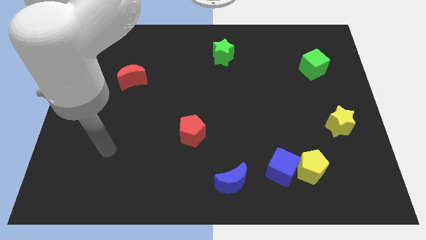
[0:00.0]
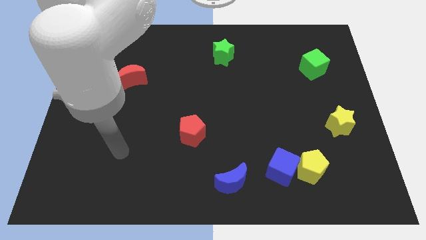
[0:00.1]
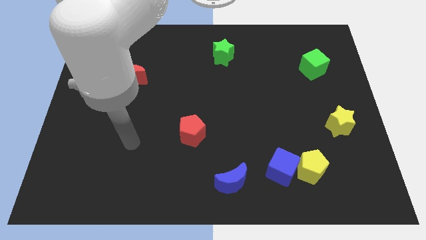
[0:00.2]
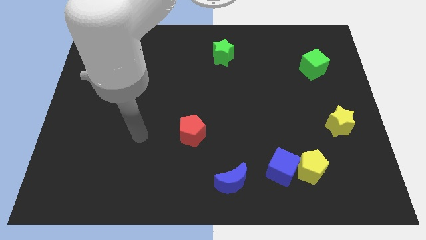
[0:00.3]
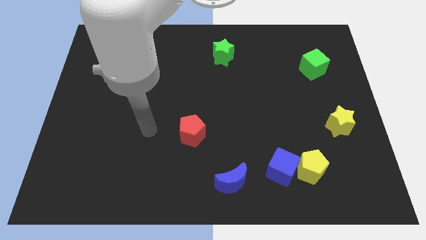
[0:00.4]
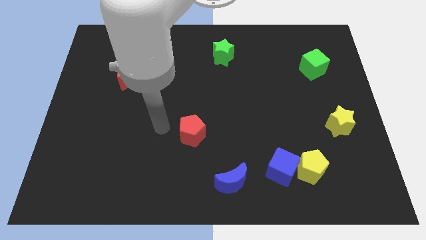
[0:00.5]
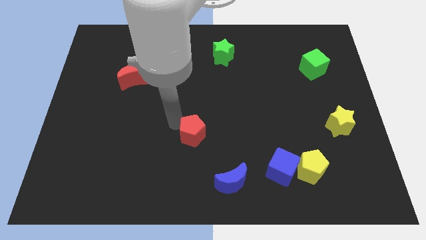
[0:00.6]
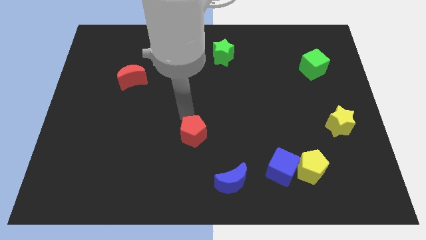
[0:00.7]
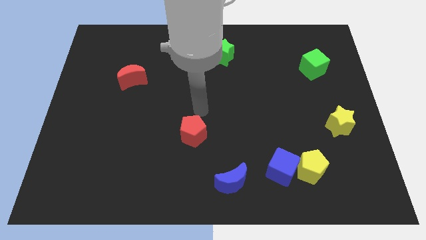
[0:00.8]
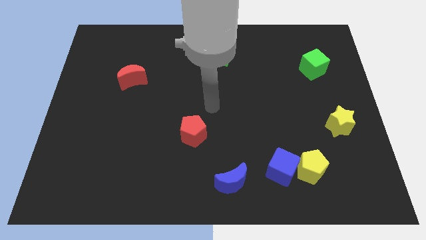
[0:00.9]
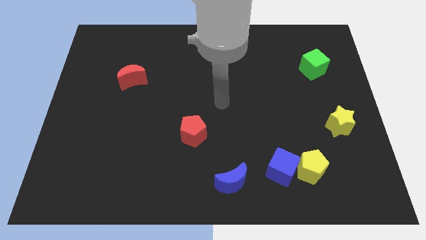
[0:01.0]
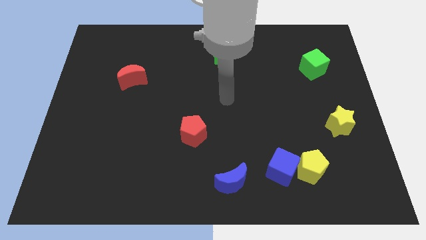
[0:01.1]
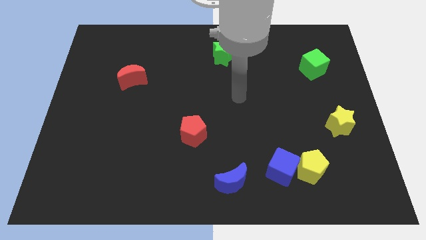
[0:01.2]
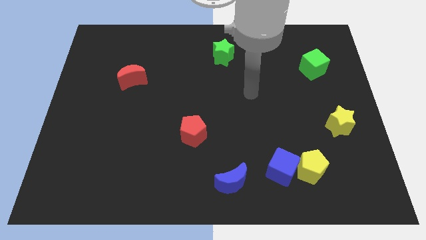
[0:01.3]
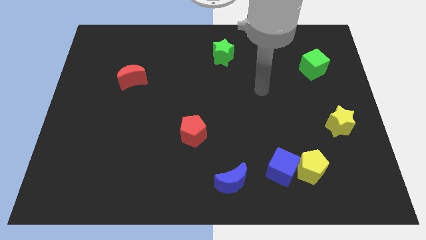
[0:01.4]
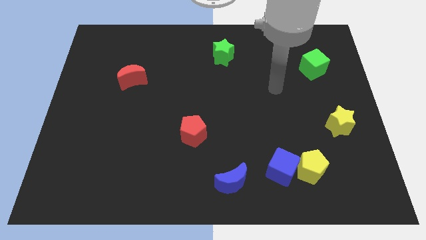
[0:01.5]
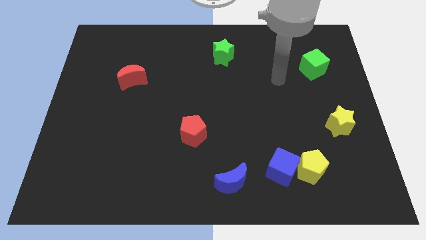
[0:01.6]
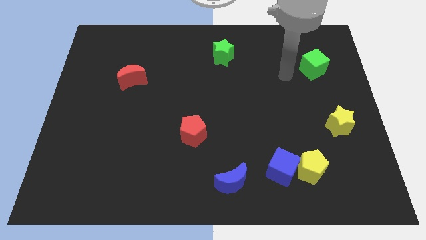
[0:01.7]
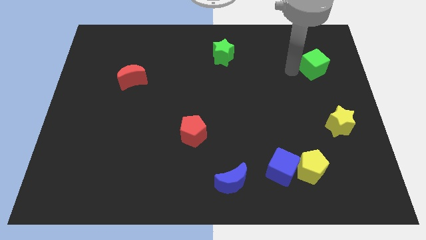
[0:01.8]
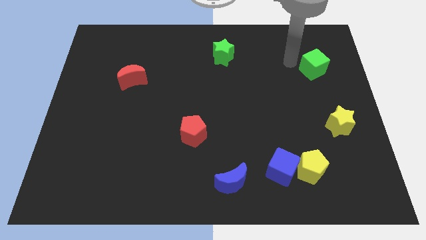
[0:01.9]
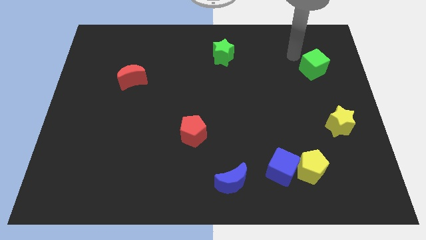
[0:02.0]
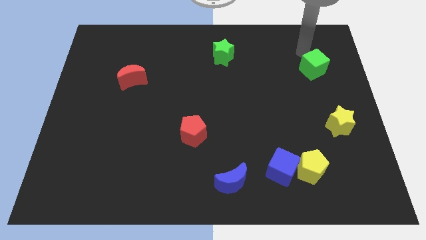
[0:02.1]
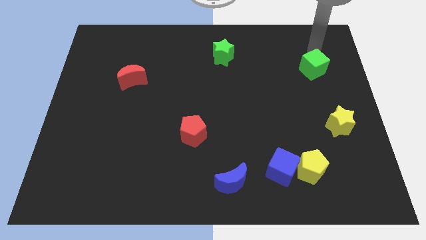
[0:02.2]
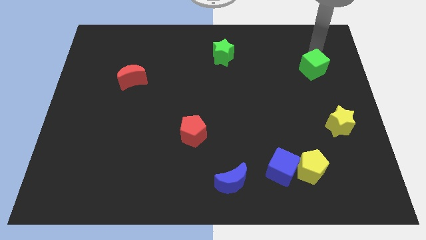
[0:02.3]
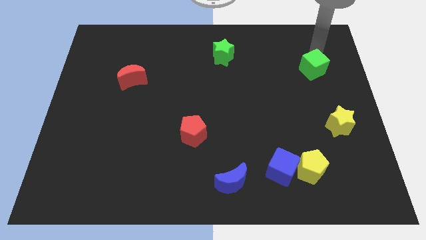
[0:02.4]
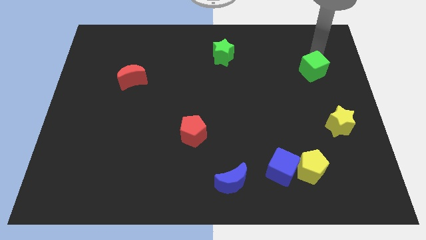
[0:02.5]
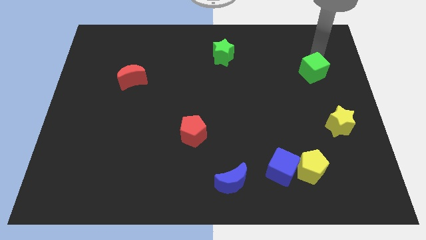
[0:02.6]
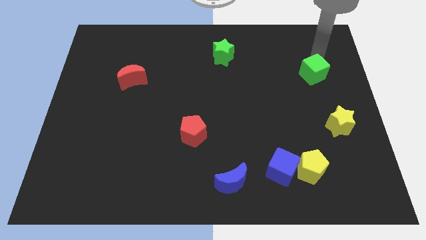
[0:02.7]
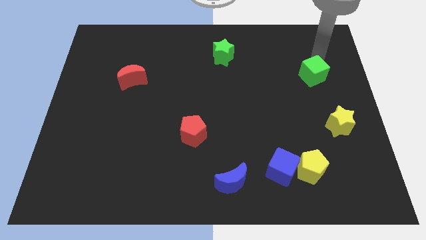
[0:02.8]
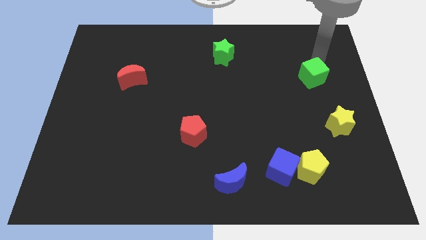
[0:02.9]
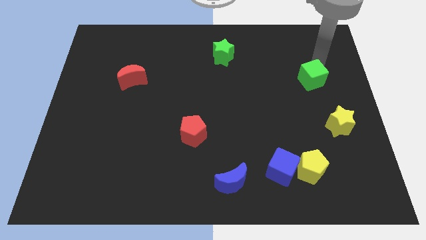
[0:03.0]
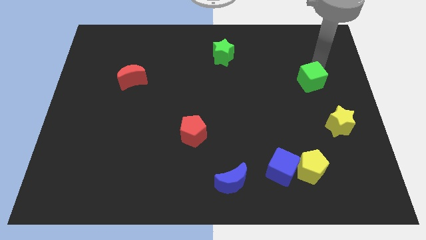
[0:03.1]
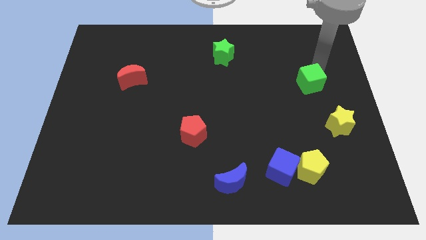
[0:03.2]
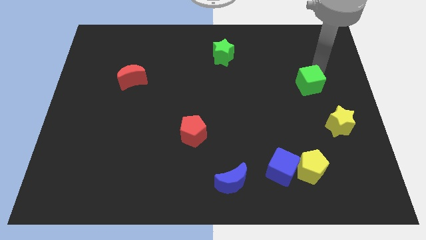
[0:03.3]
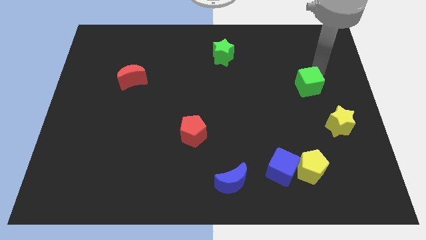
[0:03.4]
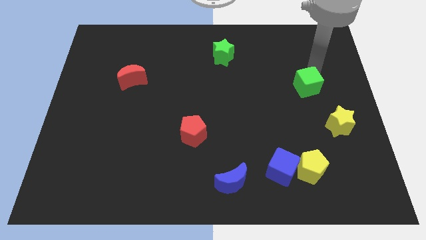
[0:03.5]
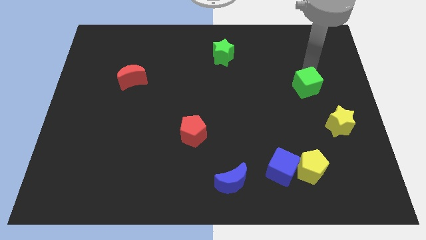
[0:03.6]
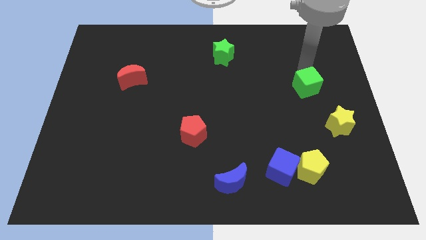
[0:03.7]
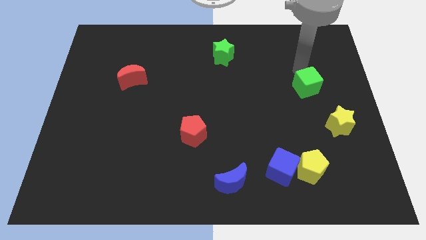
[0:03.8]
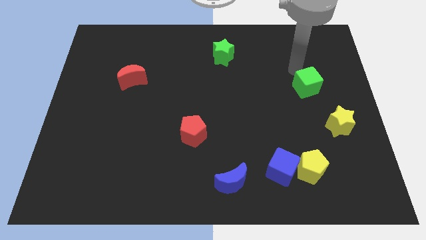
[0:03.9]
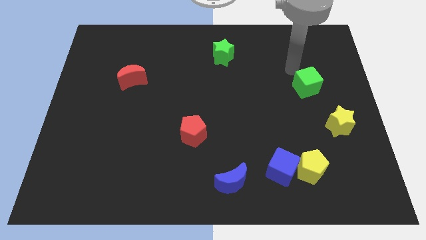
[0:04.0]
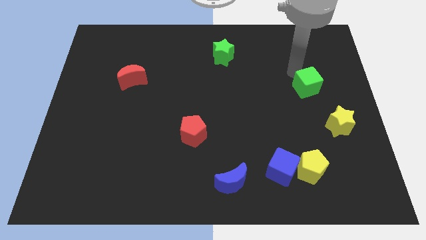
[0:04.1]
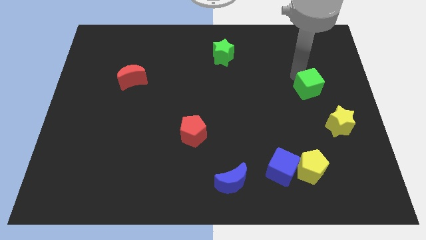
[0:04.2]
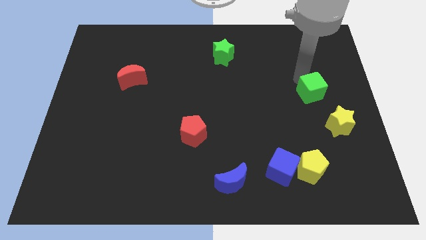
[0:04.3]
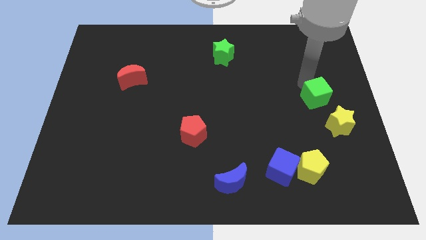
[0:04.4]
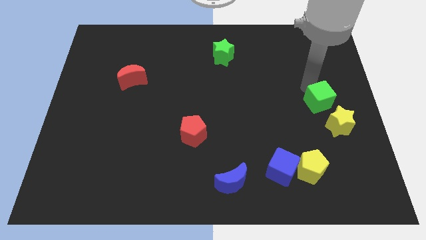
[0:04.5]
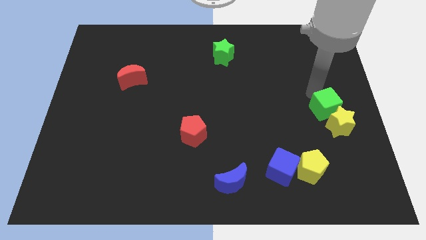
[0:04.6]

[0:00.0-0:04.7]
put the green cube to the yellow star

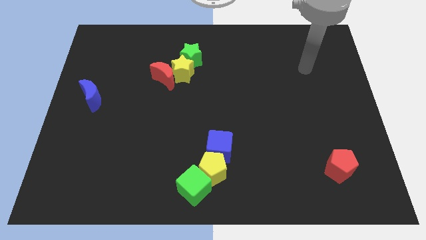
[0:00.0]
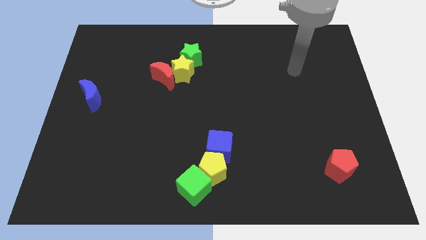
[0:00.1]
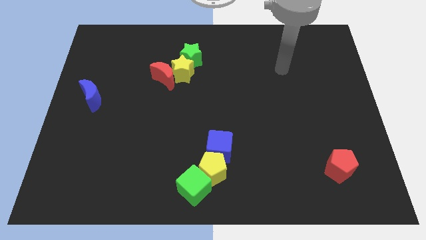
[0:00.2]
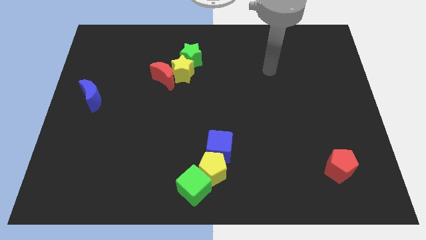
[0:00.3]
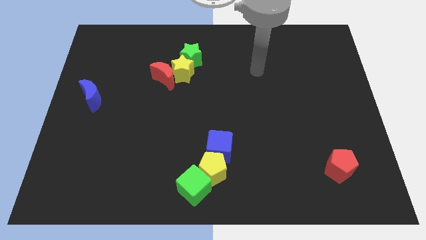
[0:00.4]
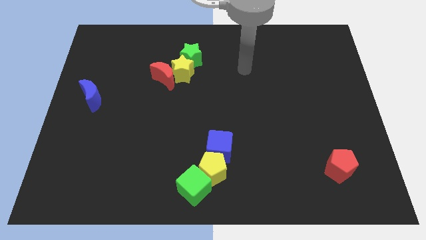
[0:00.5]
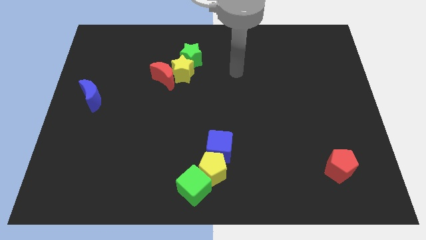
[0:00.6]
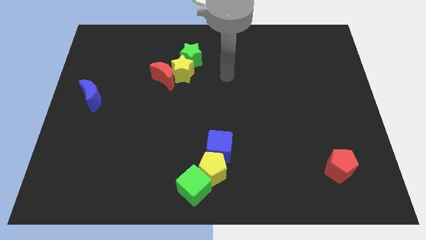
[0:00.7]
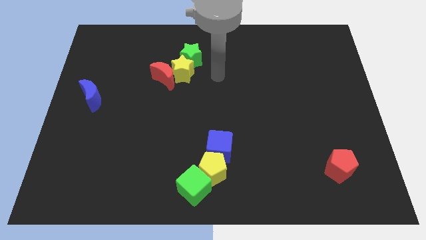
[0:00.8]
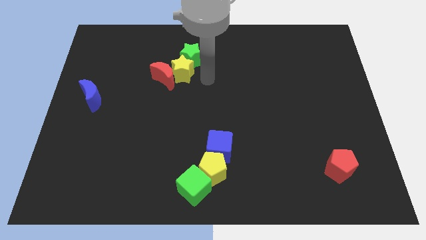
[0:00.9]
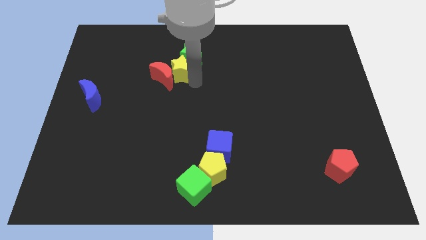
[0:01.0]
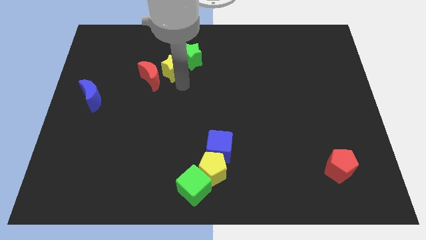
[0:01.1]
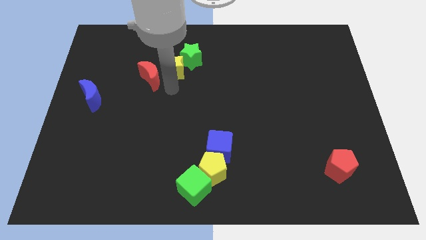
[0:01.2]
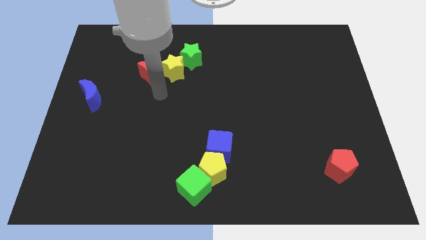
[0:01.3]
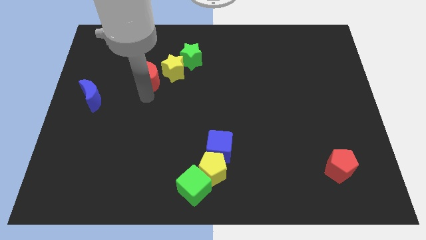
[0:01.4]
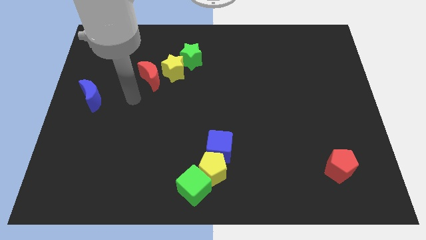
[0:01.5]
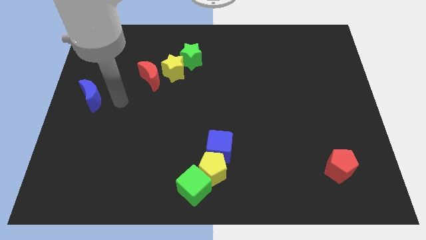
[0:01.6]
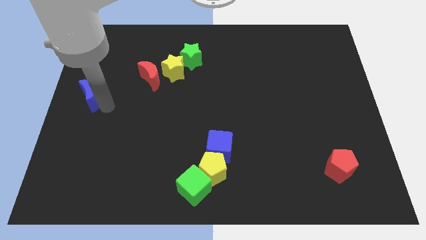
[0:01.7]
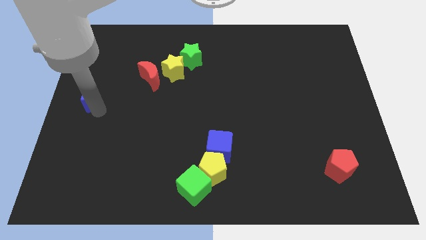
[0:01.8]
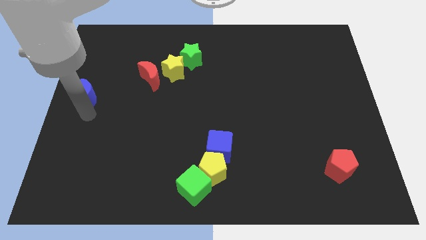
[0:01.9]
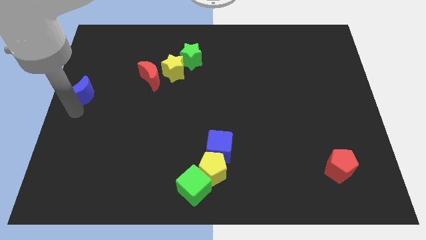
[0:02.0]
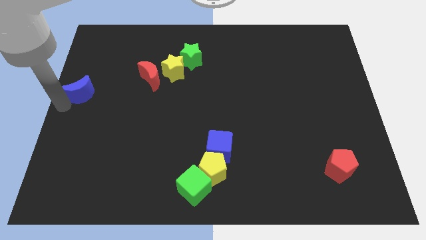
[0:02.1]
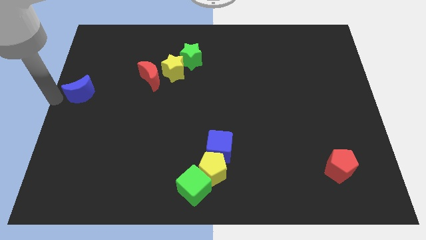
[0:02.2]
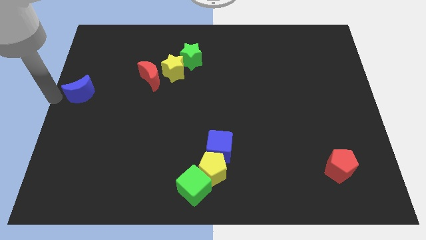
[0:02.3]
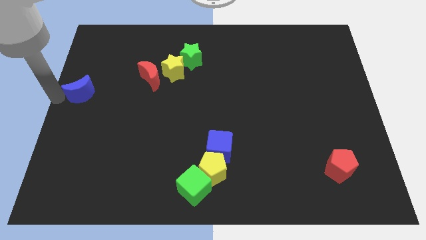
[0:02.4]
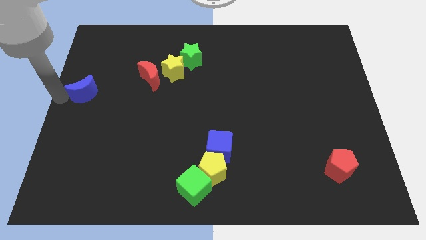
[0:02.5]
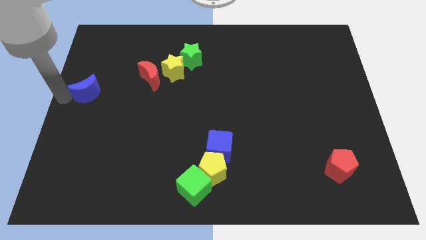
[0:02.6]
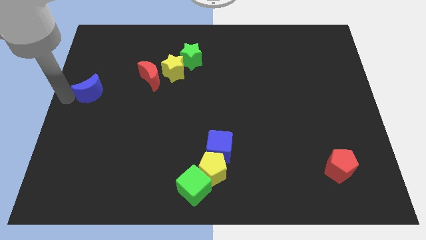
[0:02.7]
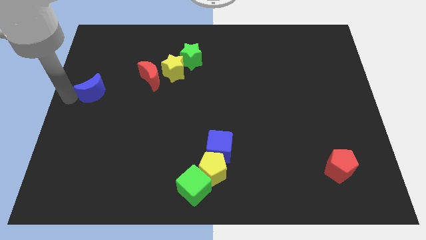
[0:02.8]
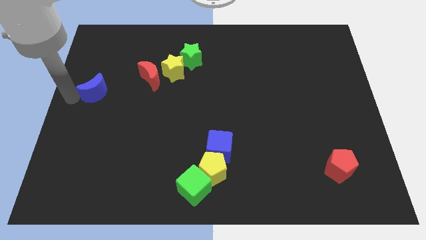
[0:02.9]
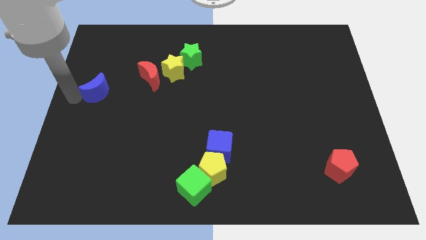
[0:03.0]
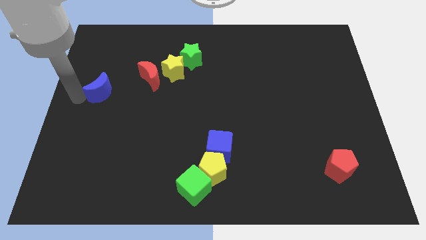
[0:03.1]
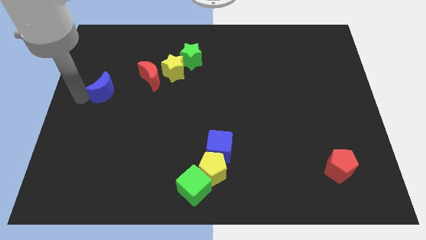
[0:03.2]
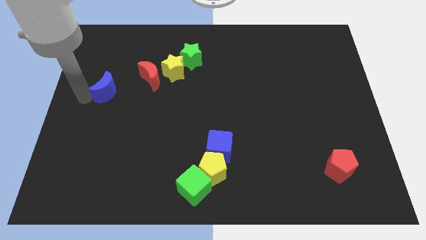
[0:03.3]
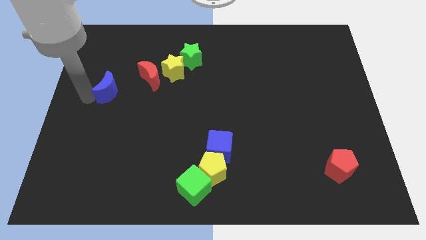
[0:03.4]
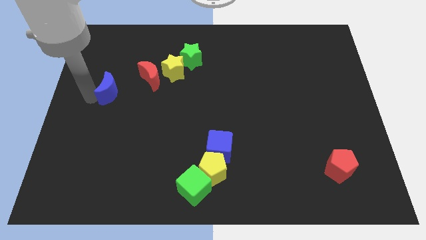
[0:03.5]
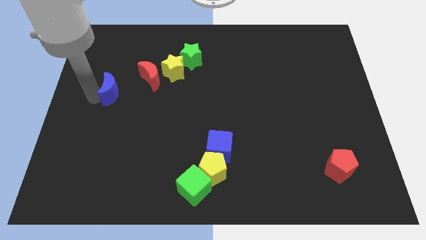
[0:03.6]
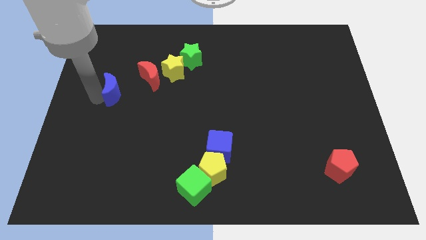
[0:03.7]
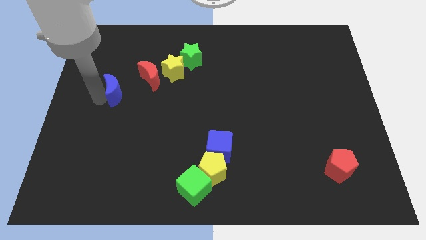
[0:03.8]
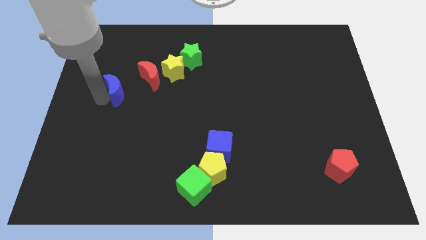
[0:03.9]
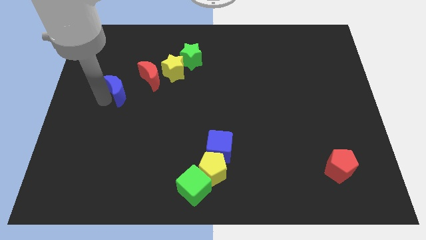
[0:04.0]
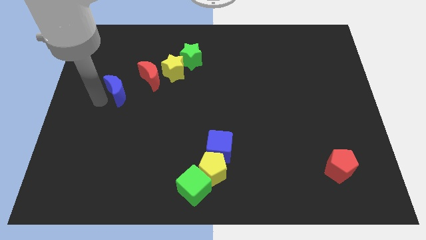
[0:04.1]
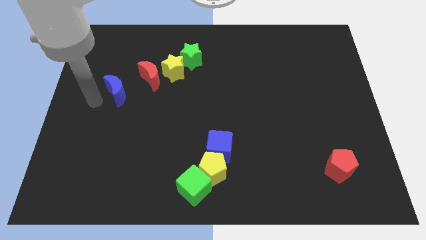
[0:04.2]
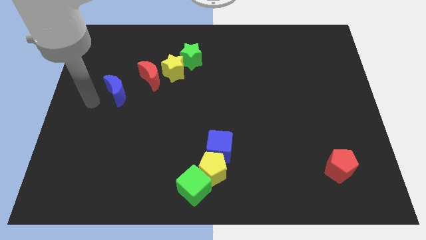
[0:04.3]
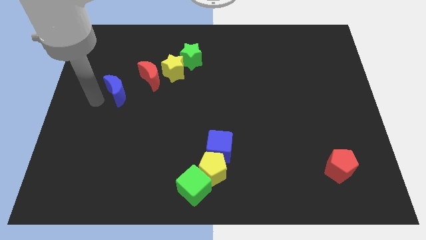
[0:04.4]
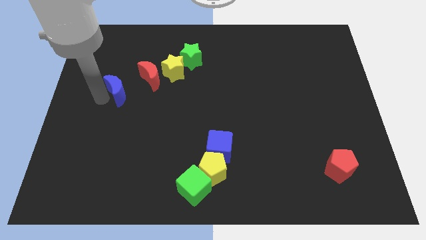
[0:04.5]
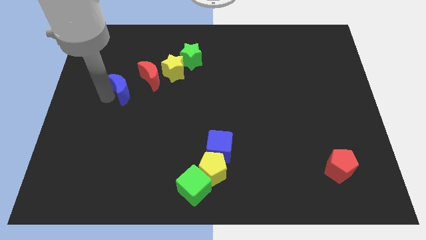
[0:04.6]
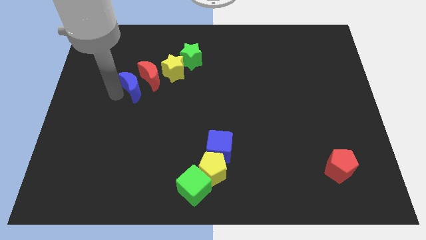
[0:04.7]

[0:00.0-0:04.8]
push the blue moon towards the red moon
